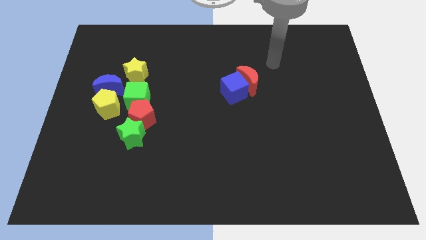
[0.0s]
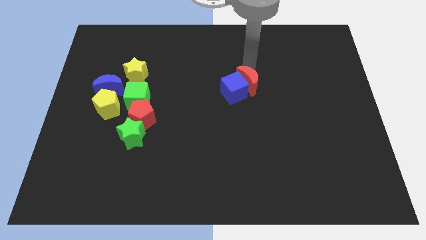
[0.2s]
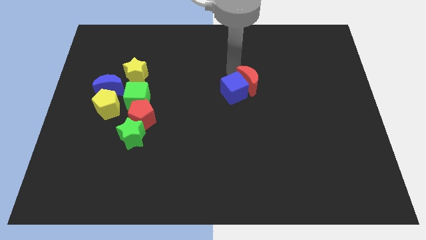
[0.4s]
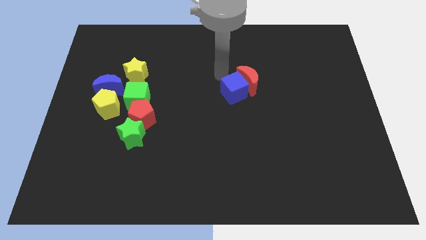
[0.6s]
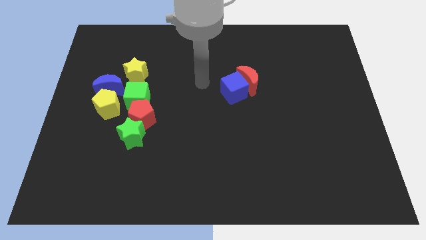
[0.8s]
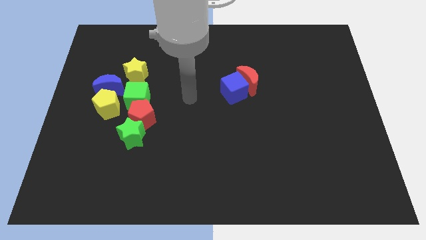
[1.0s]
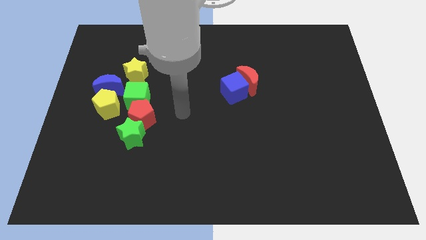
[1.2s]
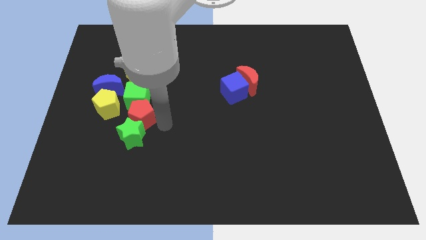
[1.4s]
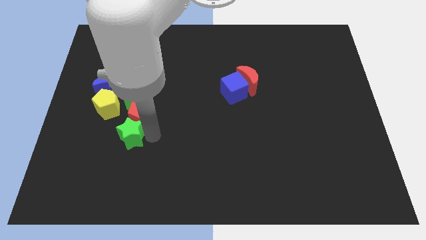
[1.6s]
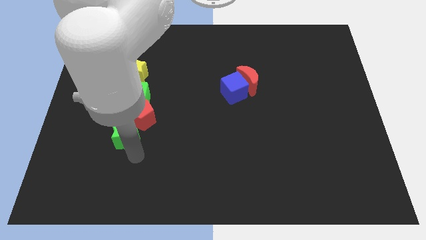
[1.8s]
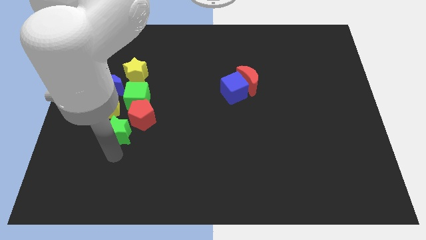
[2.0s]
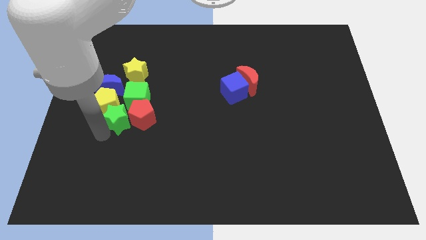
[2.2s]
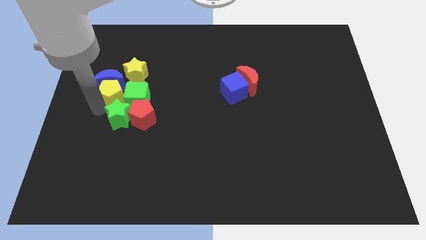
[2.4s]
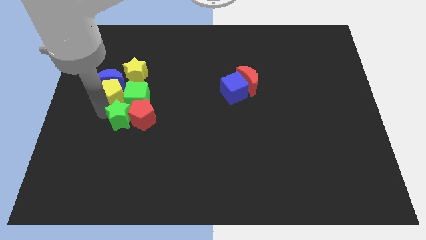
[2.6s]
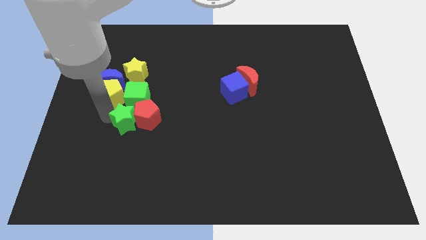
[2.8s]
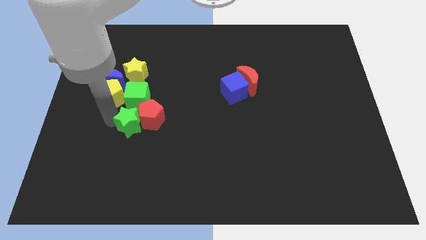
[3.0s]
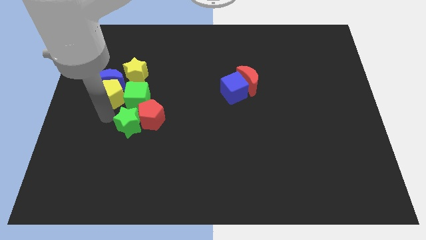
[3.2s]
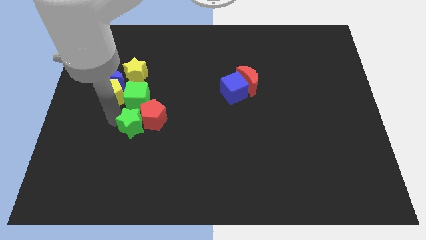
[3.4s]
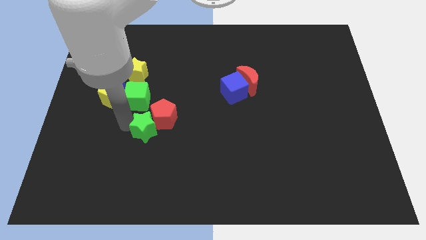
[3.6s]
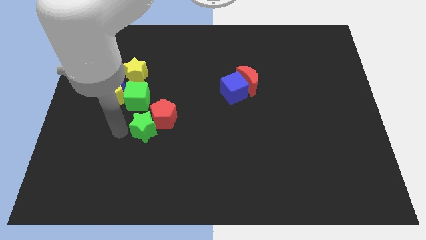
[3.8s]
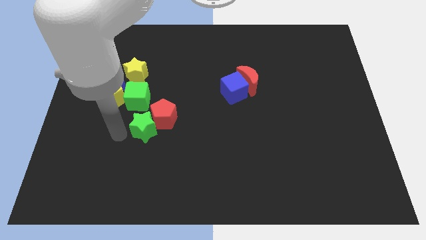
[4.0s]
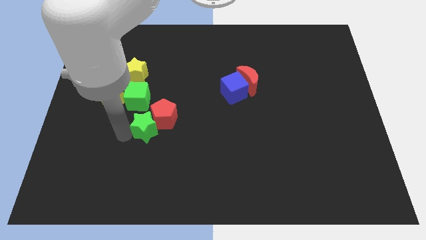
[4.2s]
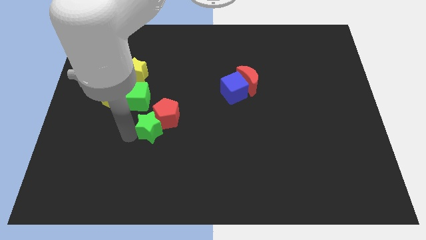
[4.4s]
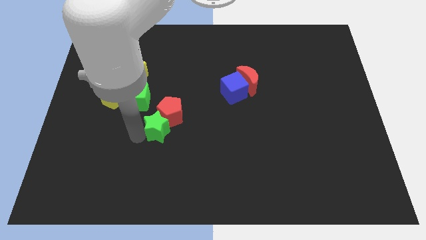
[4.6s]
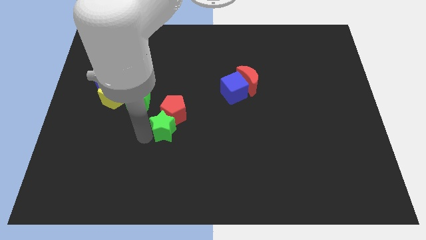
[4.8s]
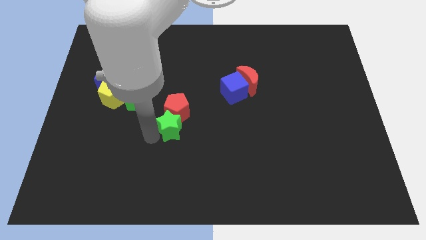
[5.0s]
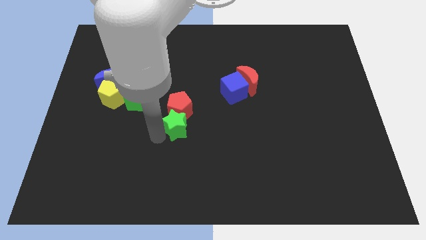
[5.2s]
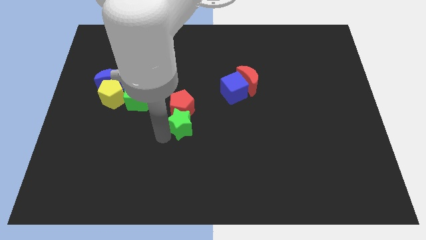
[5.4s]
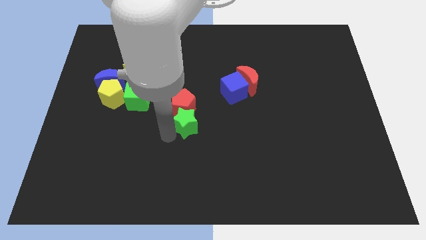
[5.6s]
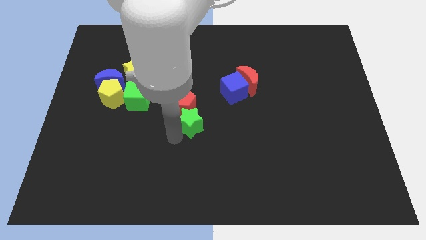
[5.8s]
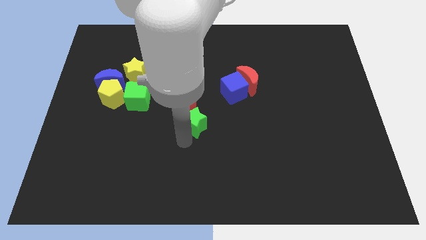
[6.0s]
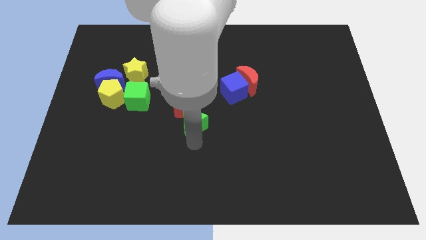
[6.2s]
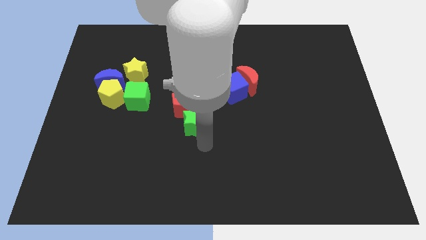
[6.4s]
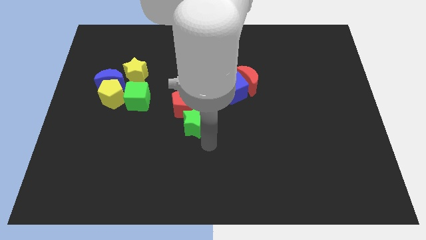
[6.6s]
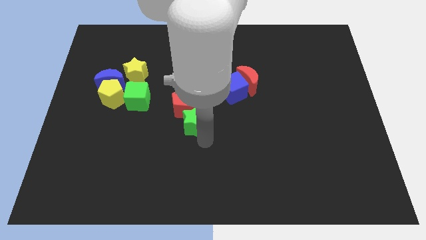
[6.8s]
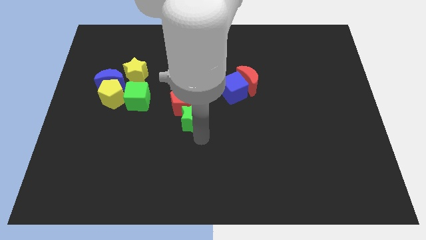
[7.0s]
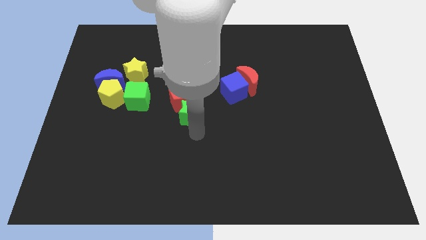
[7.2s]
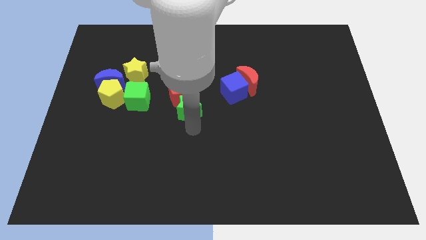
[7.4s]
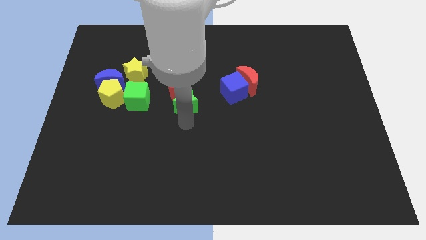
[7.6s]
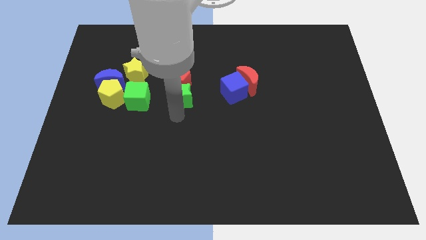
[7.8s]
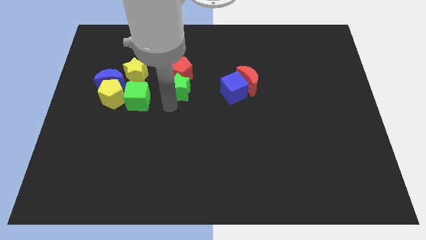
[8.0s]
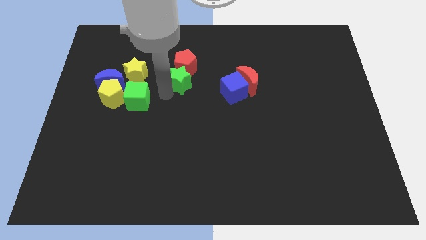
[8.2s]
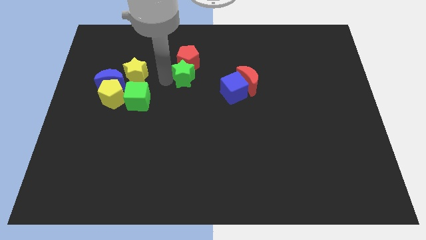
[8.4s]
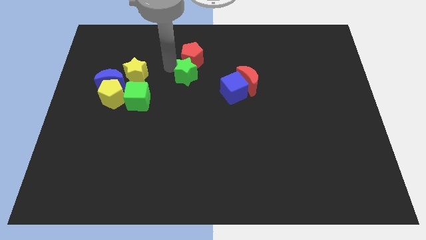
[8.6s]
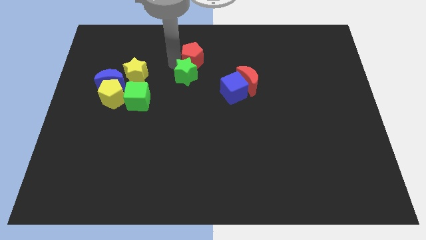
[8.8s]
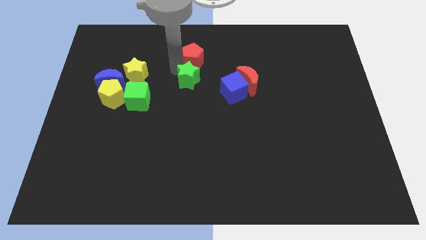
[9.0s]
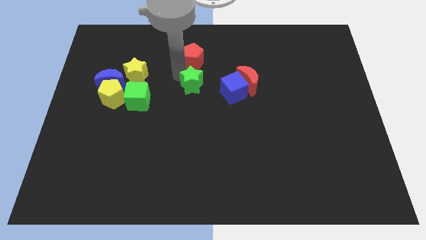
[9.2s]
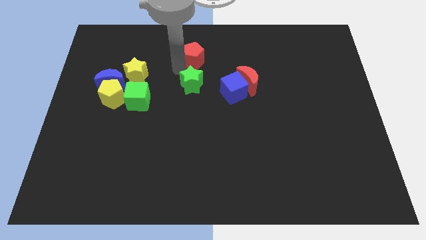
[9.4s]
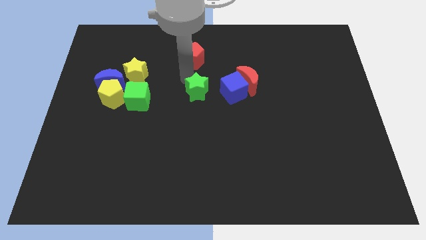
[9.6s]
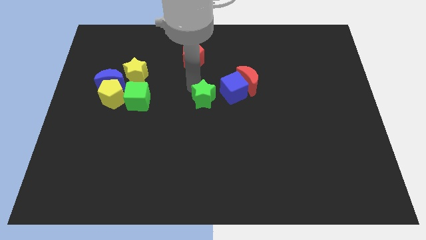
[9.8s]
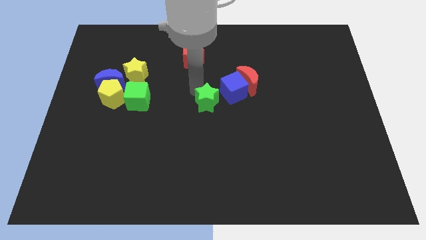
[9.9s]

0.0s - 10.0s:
slide the green star diagonally down and to the left of the red moon

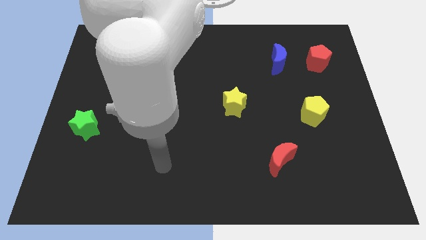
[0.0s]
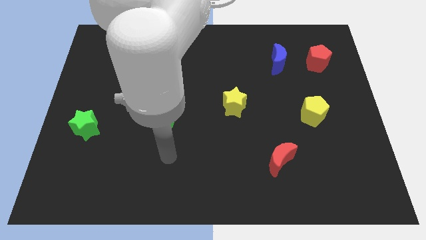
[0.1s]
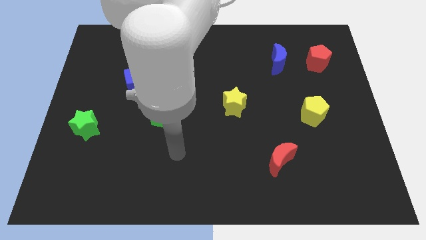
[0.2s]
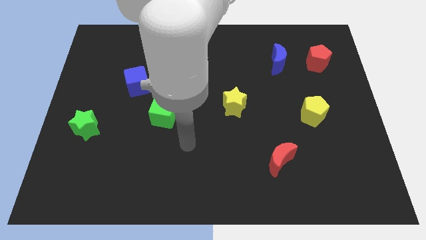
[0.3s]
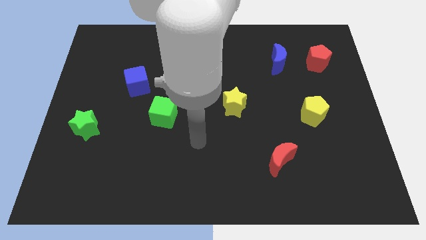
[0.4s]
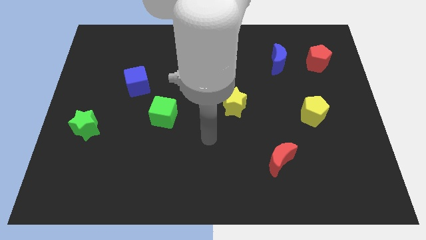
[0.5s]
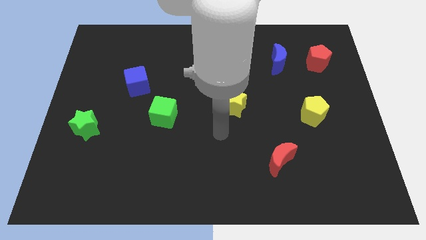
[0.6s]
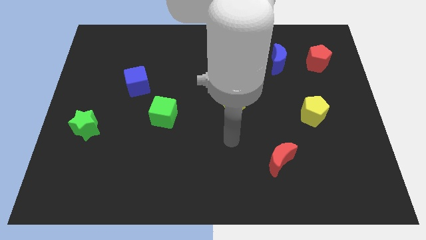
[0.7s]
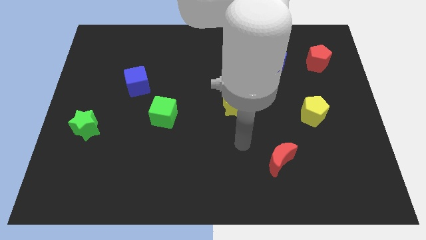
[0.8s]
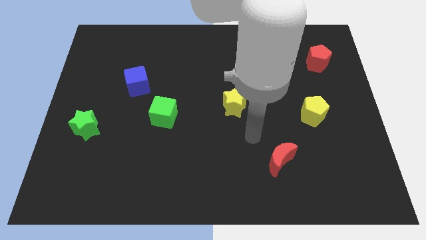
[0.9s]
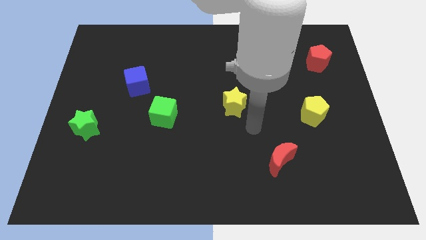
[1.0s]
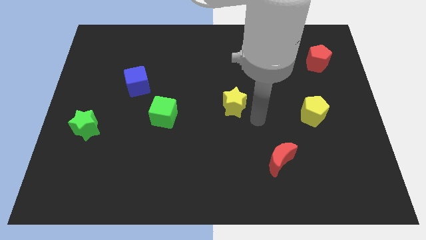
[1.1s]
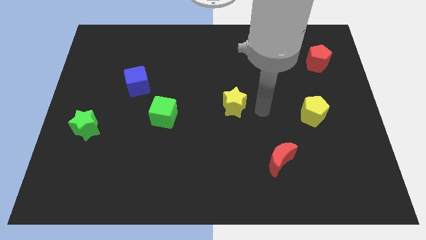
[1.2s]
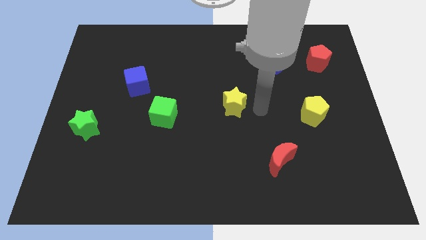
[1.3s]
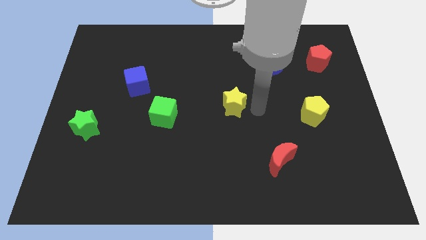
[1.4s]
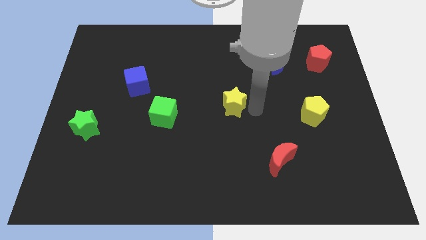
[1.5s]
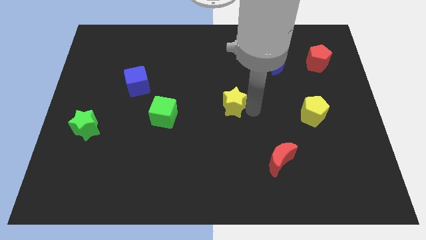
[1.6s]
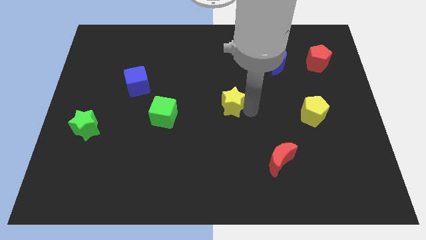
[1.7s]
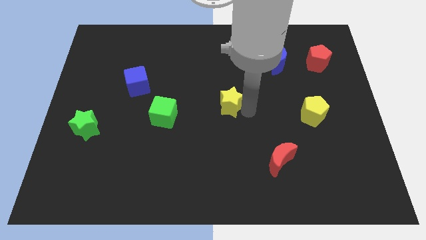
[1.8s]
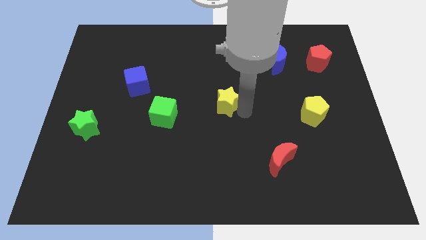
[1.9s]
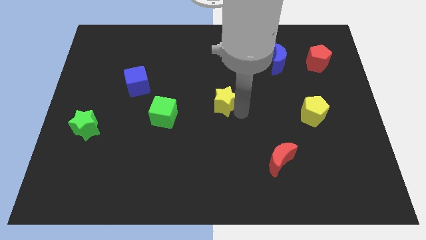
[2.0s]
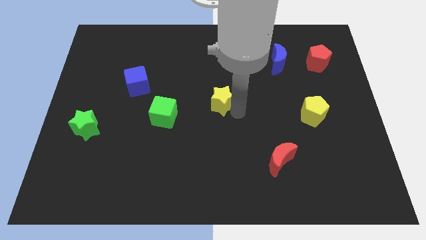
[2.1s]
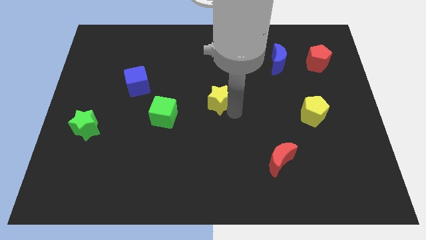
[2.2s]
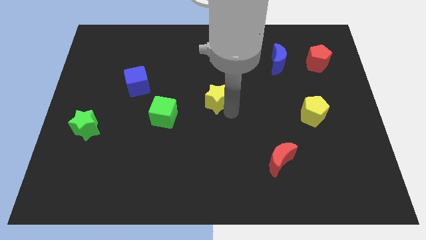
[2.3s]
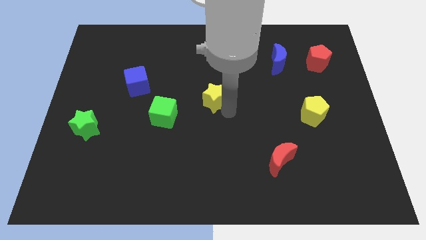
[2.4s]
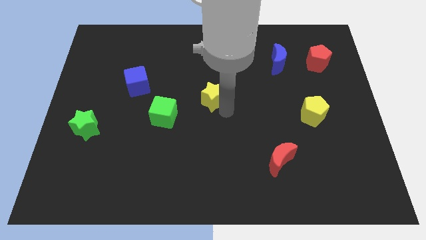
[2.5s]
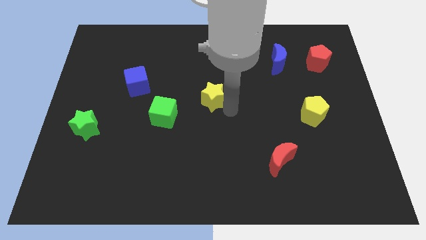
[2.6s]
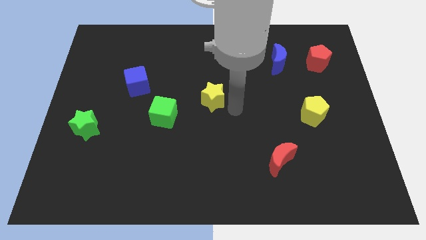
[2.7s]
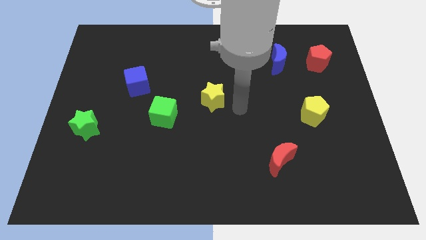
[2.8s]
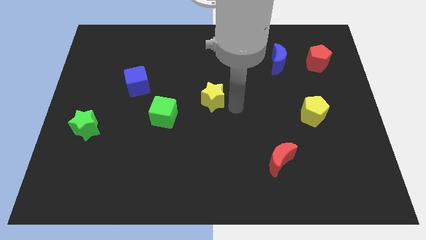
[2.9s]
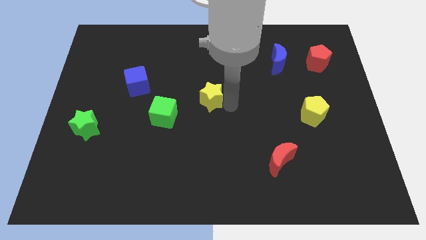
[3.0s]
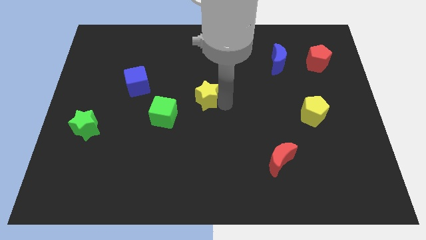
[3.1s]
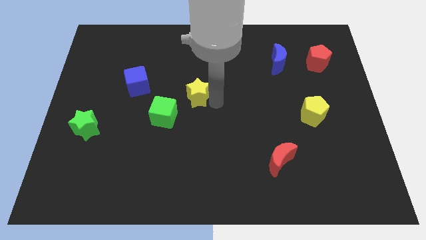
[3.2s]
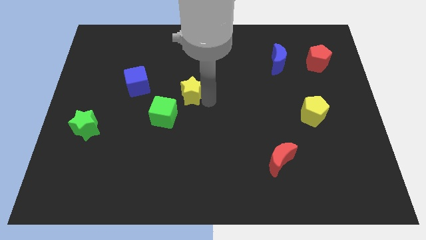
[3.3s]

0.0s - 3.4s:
slide the yellow star to the right of the blue cube

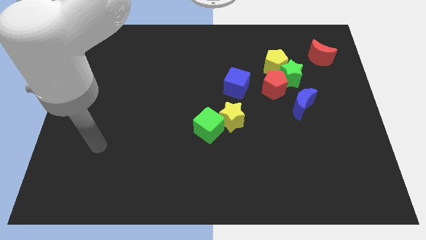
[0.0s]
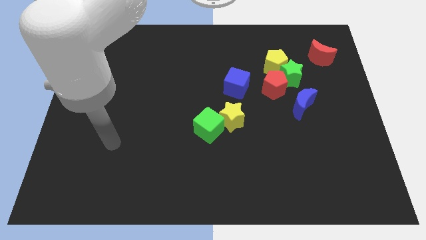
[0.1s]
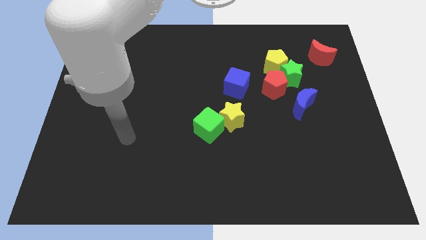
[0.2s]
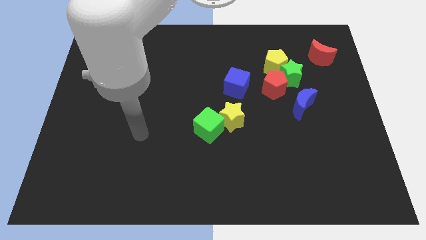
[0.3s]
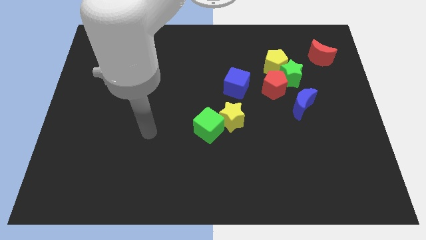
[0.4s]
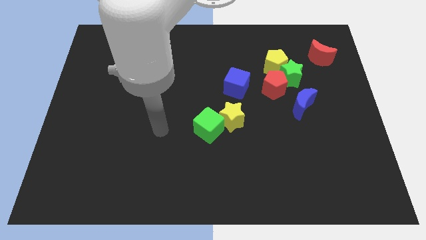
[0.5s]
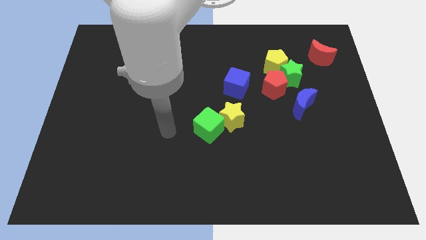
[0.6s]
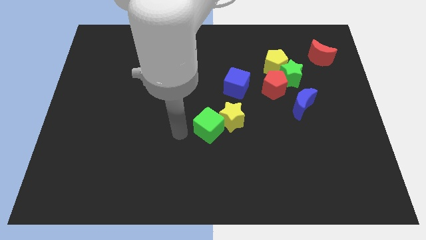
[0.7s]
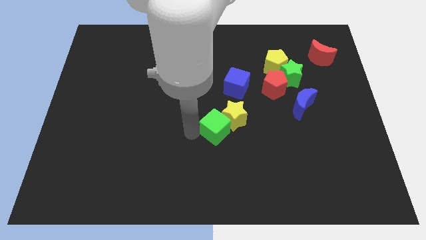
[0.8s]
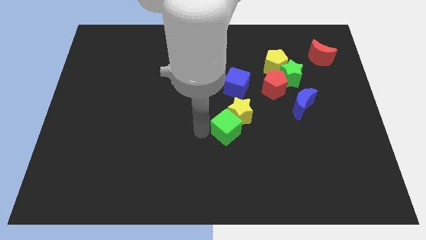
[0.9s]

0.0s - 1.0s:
push the yellow star left of the blue moon
